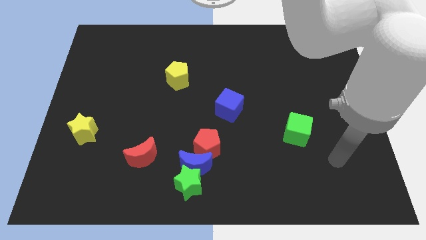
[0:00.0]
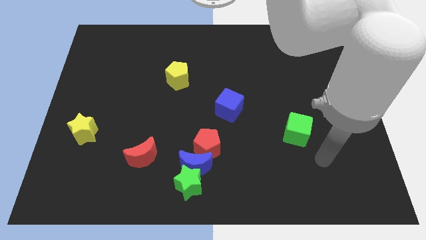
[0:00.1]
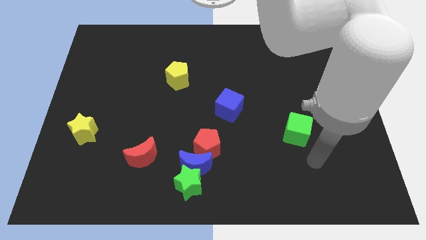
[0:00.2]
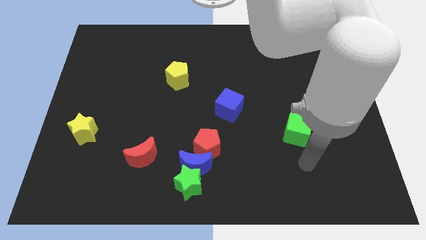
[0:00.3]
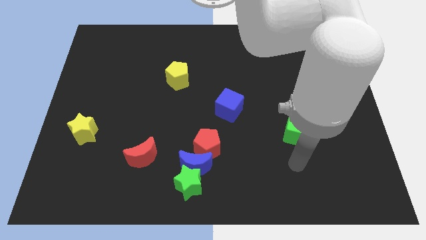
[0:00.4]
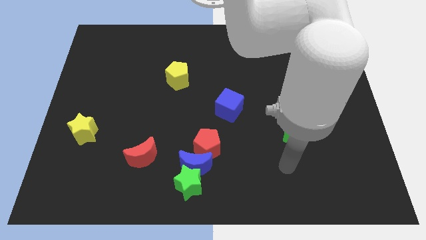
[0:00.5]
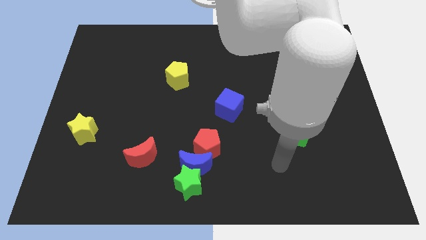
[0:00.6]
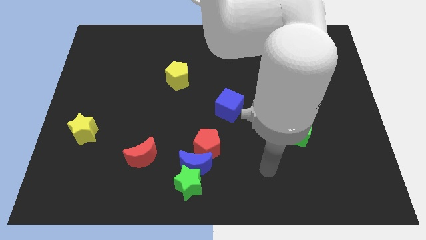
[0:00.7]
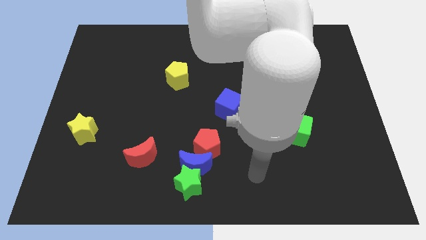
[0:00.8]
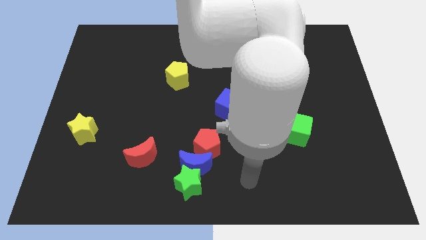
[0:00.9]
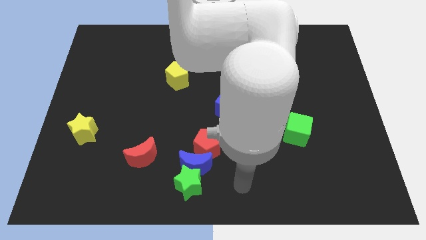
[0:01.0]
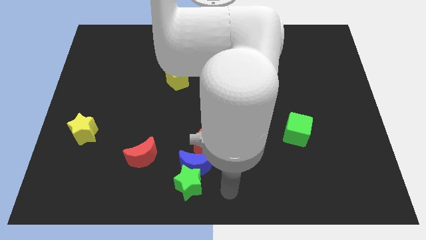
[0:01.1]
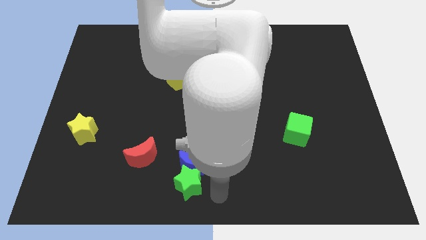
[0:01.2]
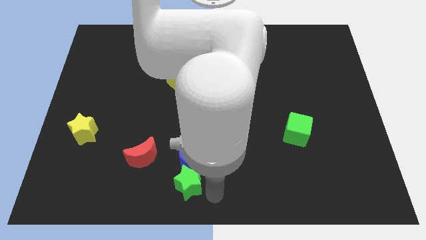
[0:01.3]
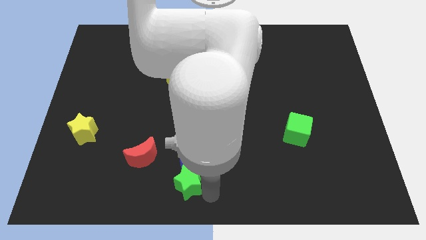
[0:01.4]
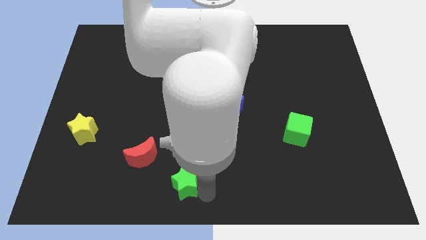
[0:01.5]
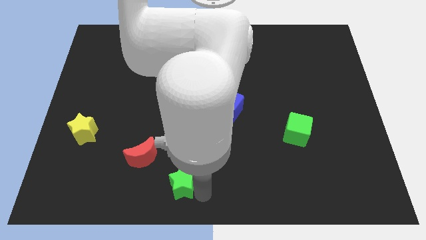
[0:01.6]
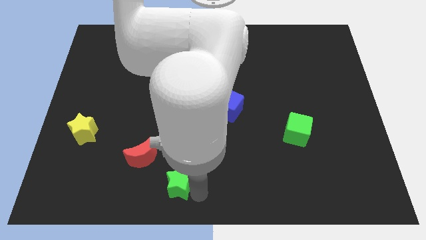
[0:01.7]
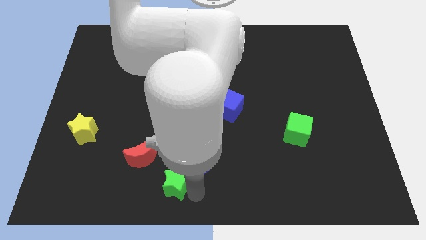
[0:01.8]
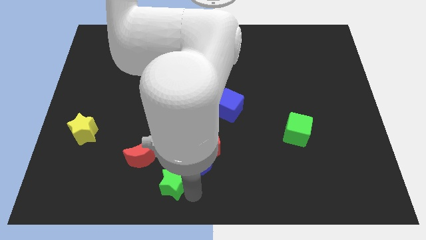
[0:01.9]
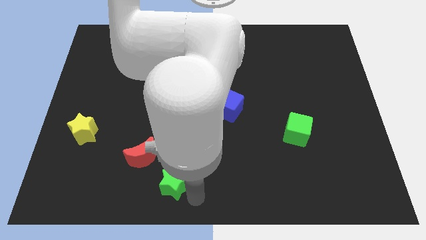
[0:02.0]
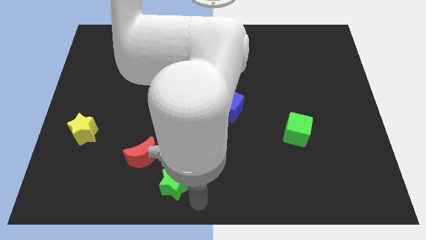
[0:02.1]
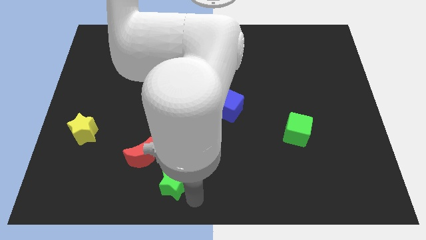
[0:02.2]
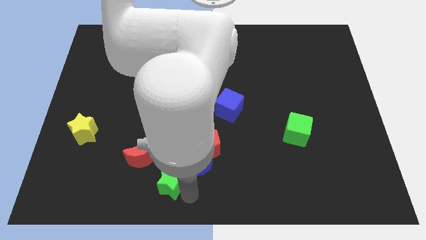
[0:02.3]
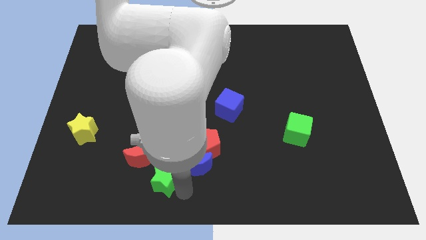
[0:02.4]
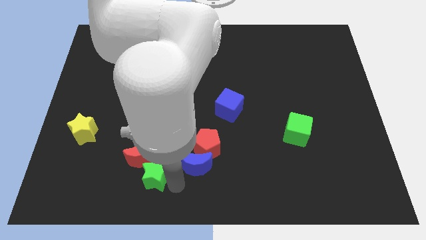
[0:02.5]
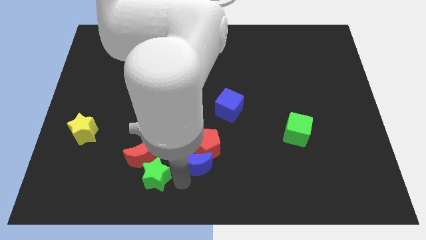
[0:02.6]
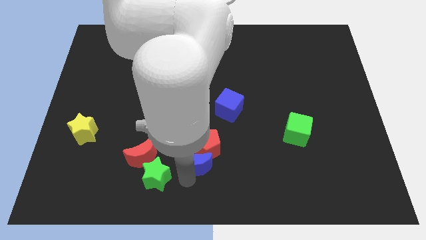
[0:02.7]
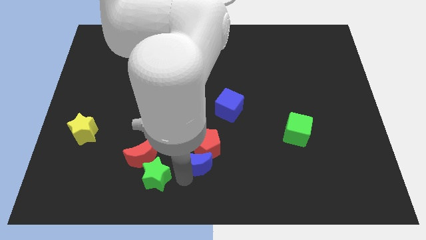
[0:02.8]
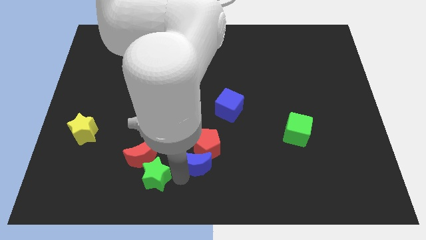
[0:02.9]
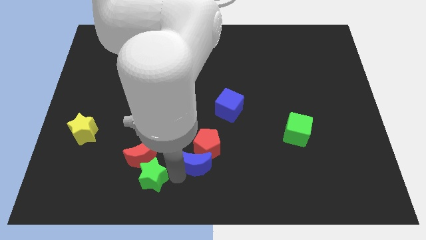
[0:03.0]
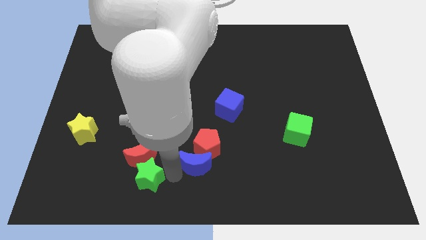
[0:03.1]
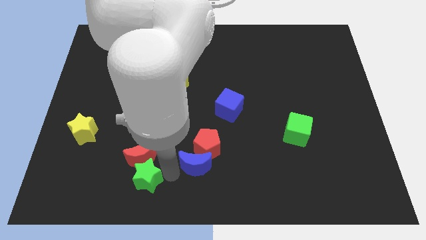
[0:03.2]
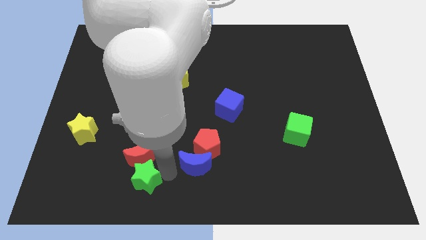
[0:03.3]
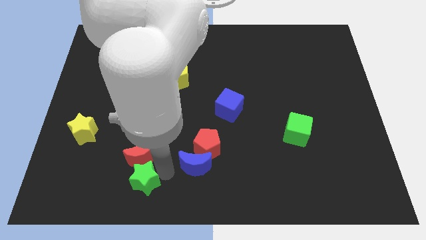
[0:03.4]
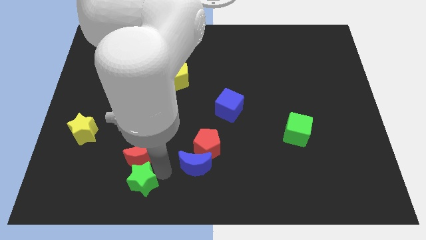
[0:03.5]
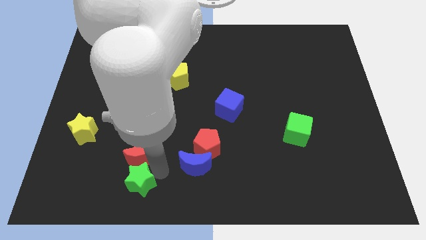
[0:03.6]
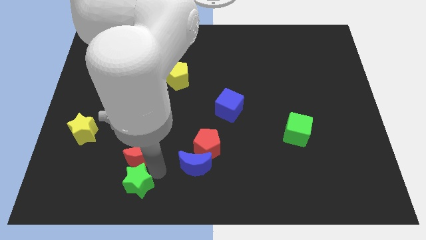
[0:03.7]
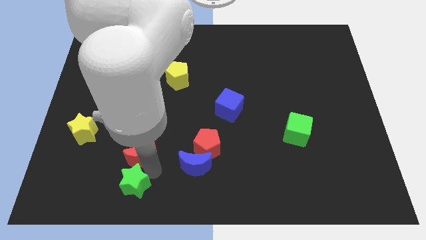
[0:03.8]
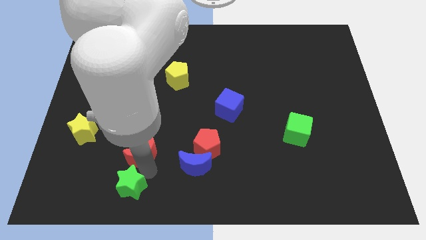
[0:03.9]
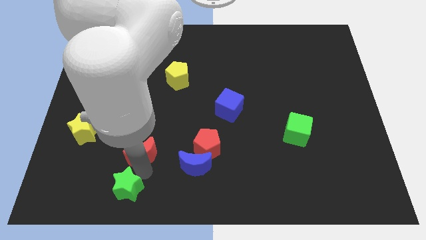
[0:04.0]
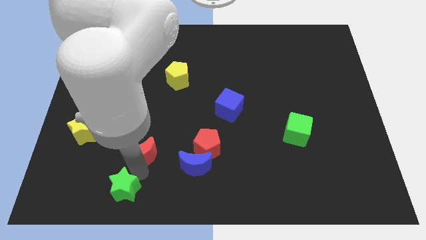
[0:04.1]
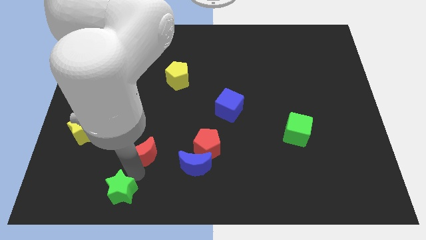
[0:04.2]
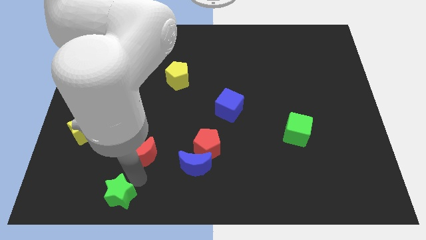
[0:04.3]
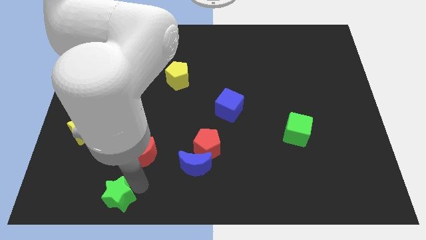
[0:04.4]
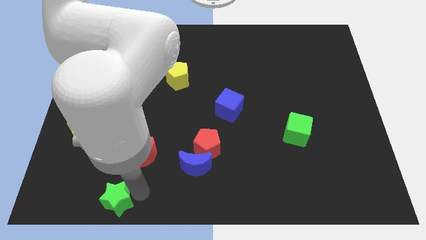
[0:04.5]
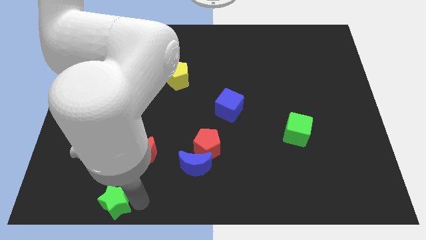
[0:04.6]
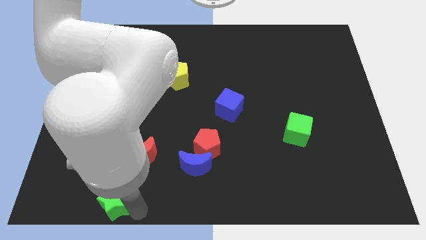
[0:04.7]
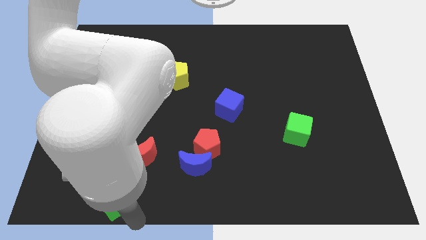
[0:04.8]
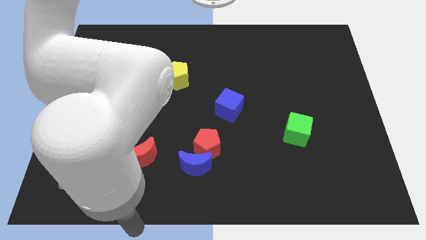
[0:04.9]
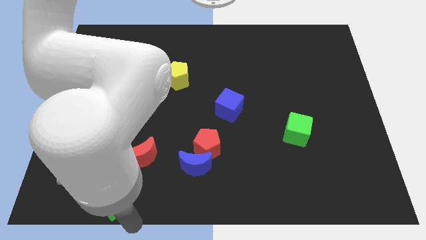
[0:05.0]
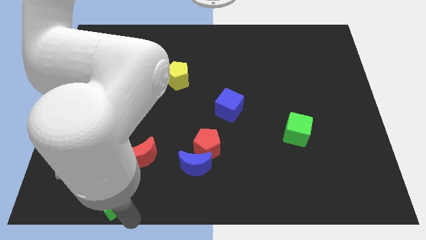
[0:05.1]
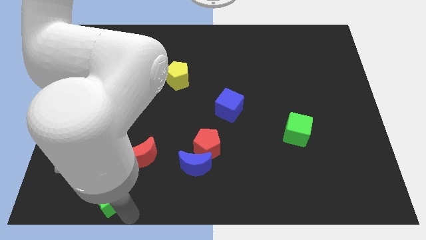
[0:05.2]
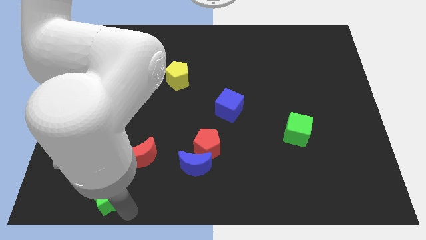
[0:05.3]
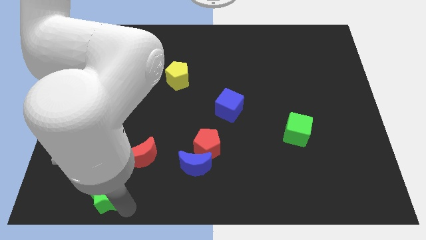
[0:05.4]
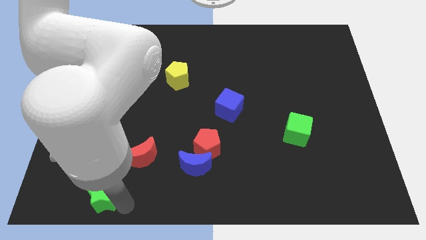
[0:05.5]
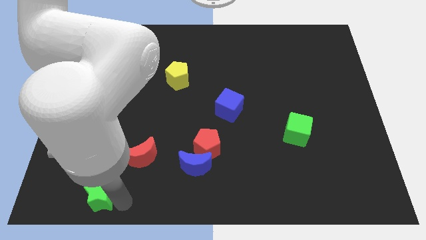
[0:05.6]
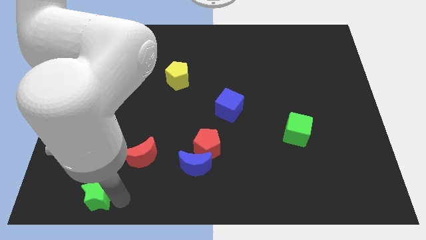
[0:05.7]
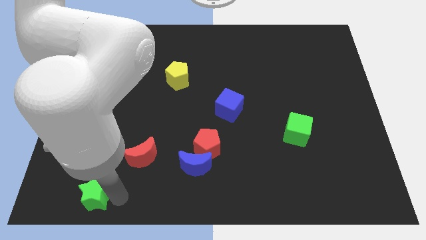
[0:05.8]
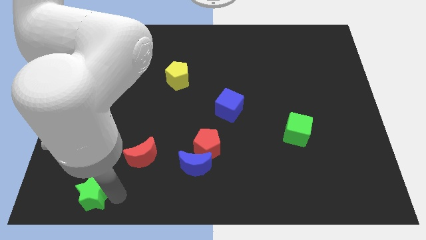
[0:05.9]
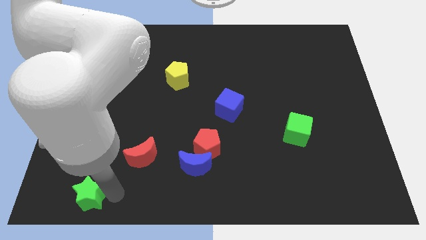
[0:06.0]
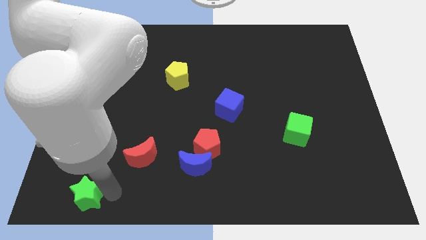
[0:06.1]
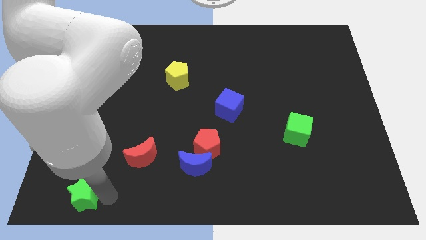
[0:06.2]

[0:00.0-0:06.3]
push the green star to the bottom side of the yellow star
